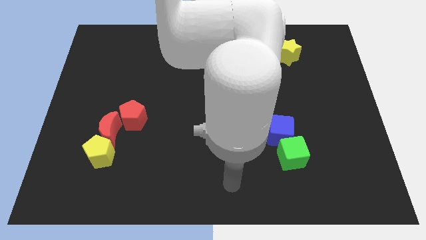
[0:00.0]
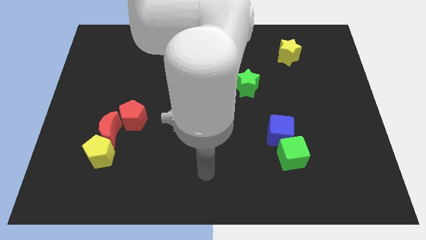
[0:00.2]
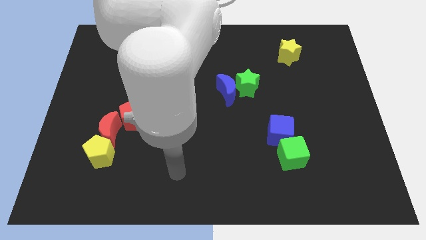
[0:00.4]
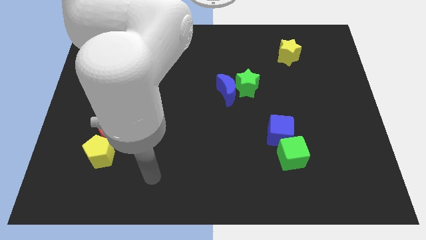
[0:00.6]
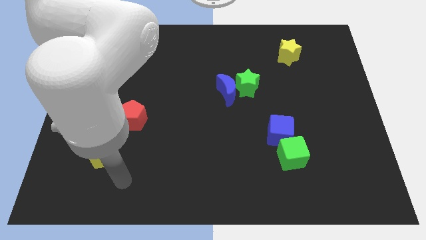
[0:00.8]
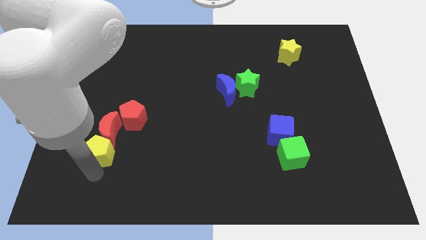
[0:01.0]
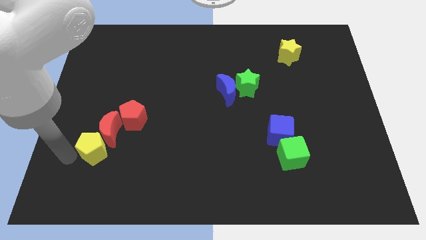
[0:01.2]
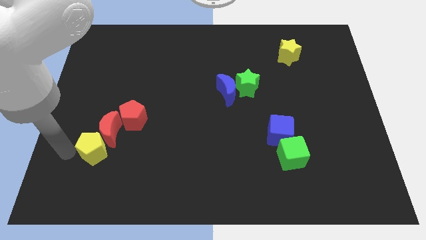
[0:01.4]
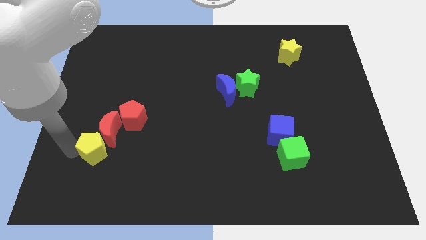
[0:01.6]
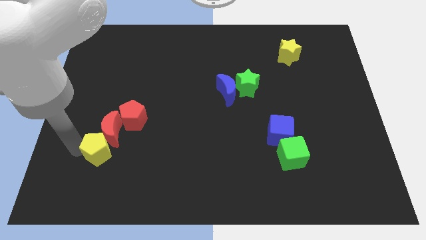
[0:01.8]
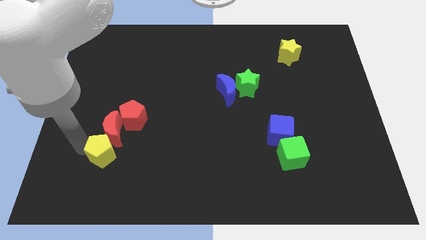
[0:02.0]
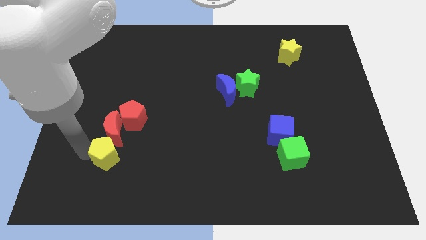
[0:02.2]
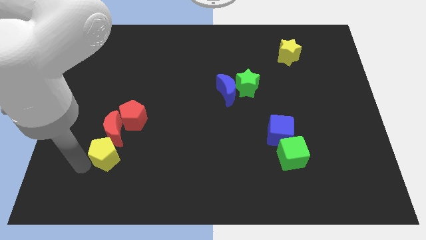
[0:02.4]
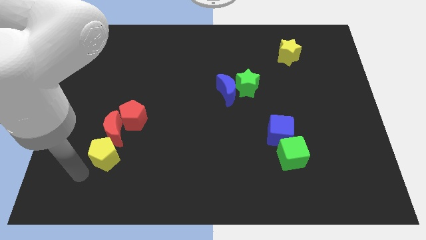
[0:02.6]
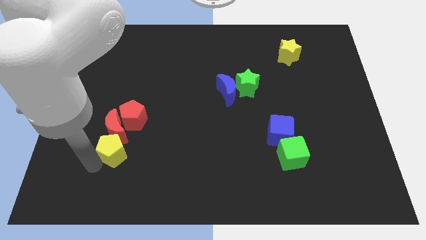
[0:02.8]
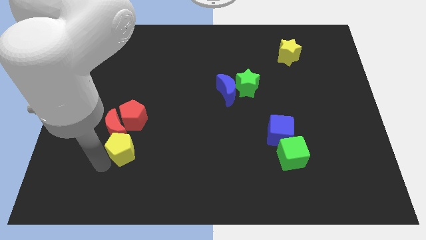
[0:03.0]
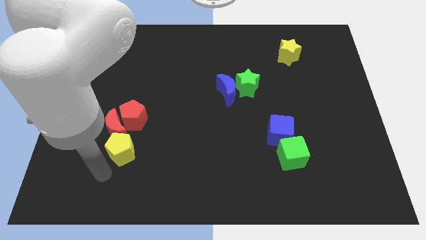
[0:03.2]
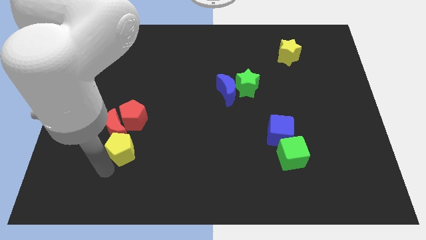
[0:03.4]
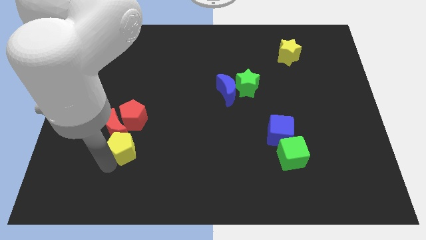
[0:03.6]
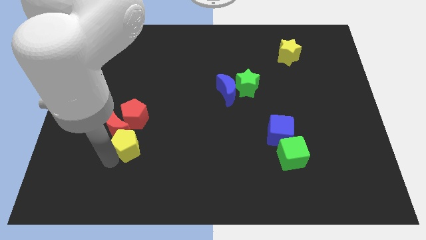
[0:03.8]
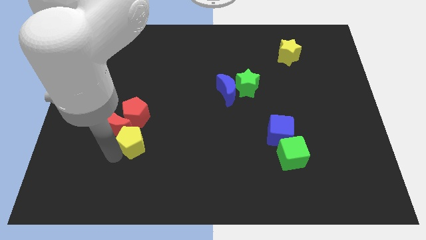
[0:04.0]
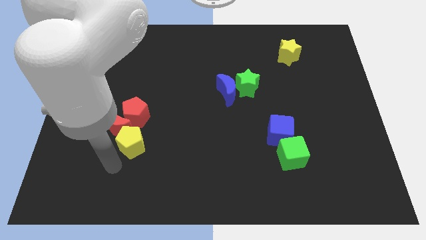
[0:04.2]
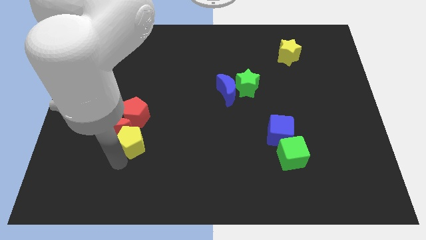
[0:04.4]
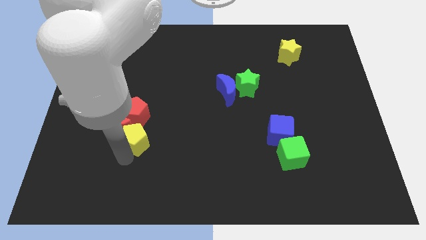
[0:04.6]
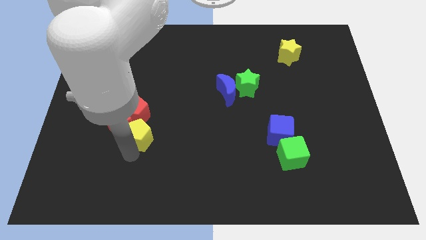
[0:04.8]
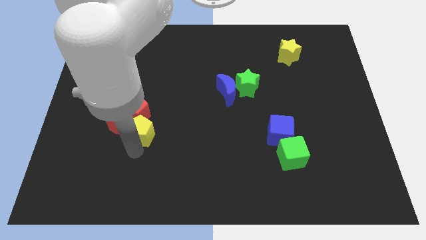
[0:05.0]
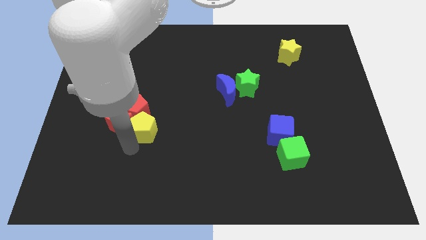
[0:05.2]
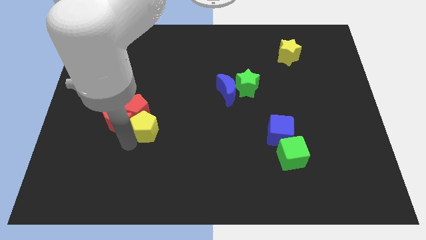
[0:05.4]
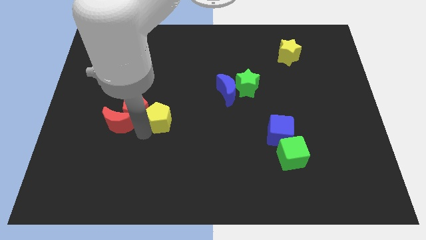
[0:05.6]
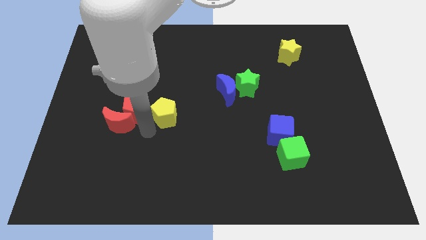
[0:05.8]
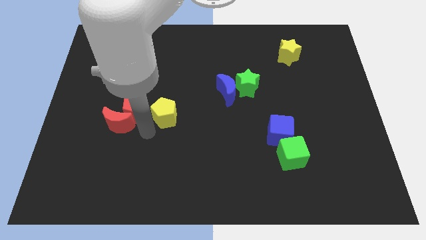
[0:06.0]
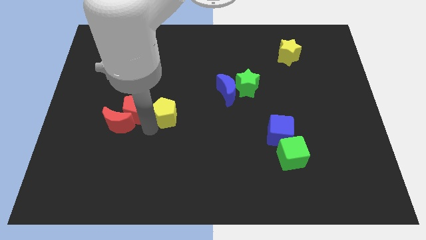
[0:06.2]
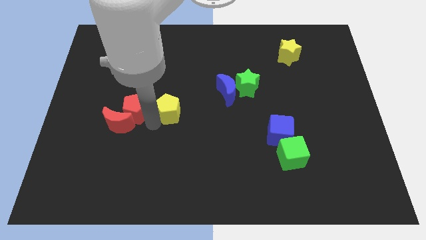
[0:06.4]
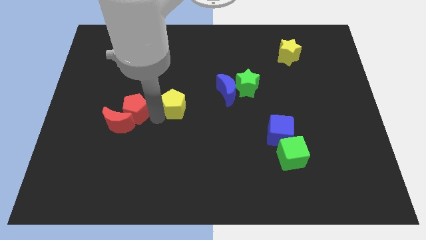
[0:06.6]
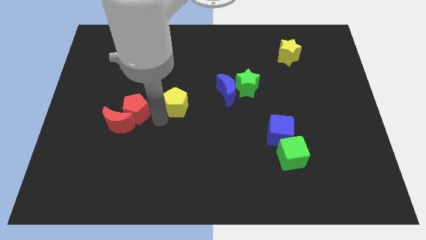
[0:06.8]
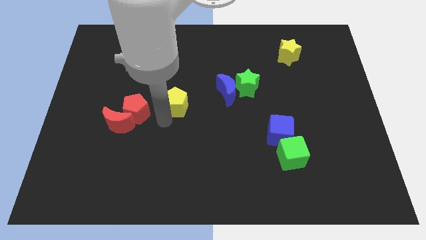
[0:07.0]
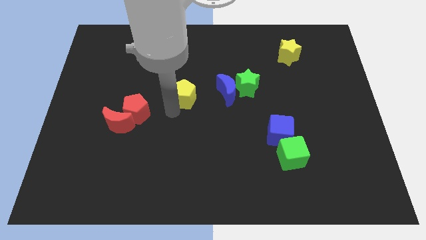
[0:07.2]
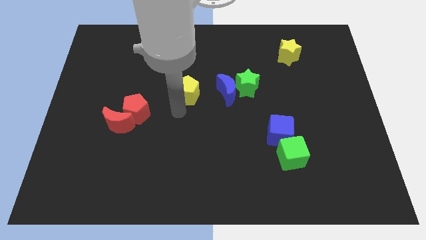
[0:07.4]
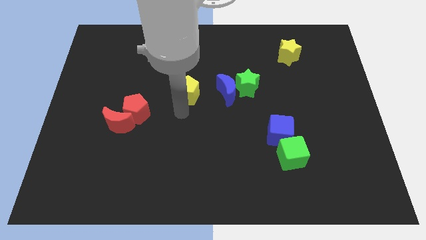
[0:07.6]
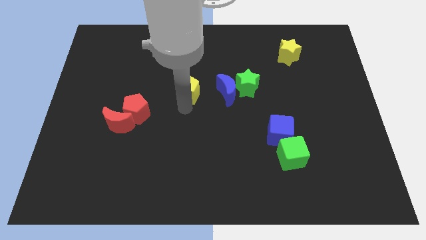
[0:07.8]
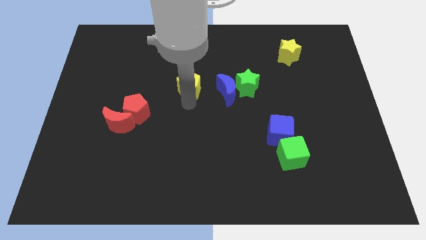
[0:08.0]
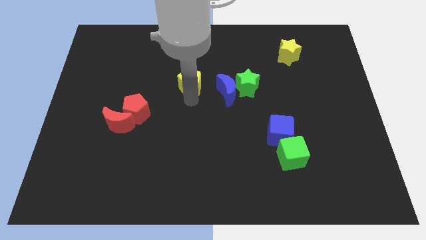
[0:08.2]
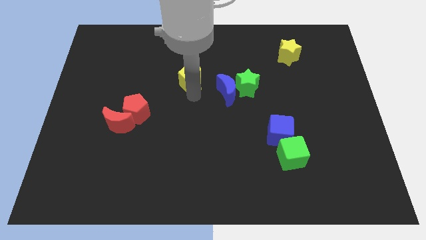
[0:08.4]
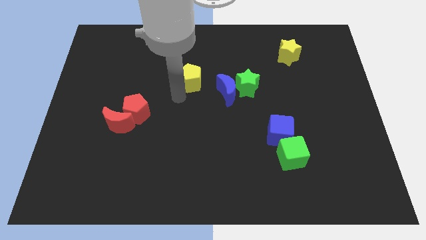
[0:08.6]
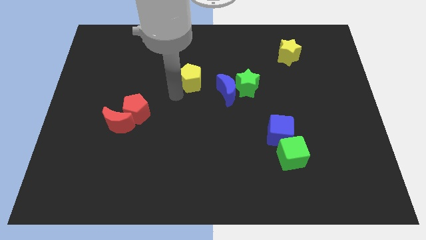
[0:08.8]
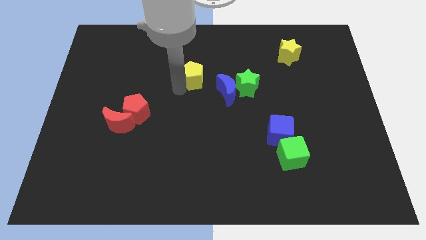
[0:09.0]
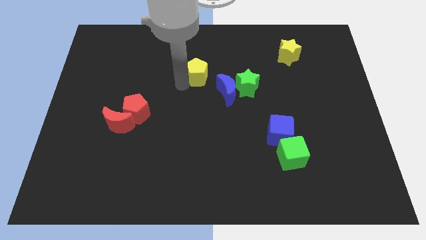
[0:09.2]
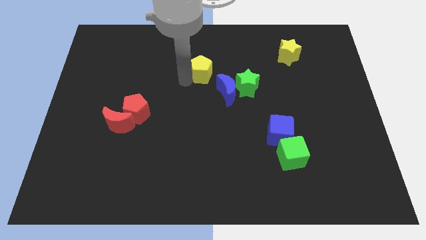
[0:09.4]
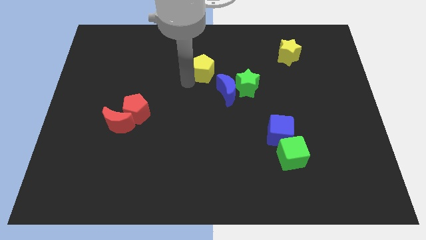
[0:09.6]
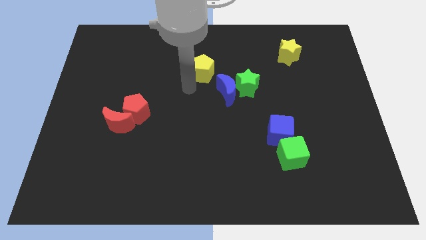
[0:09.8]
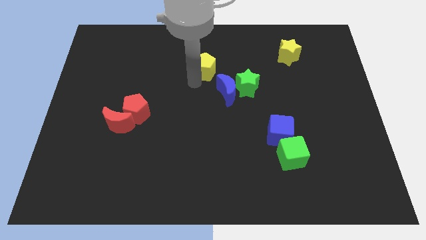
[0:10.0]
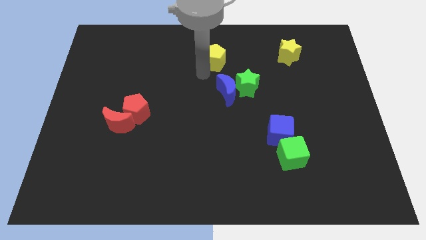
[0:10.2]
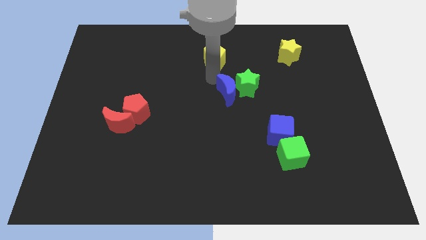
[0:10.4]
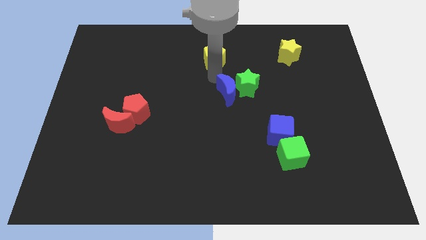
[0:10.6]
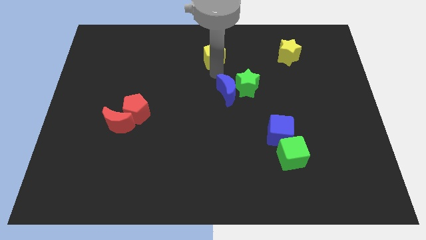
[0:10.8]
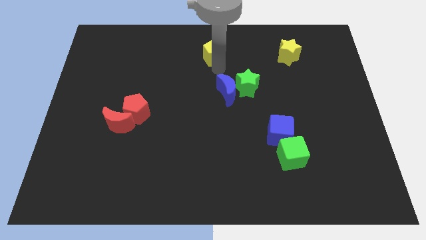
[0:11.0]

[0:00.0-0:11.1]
push the yellow pentagon to the towards your base

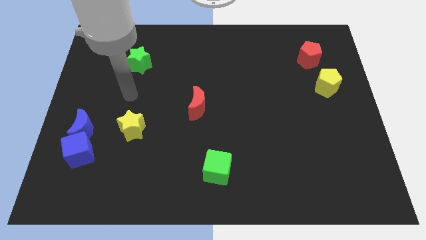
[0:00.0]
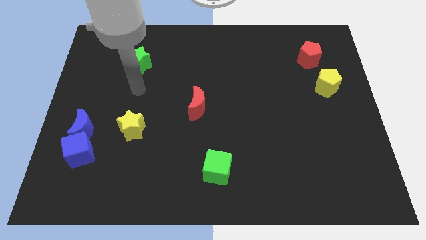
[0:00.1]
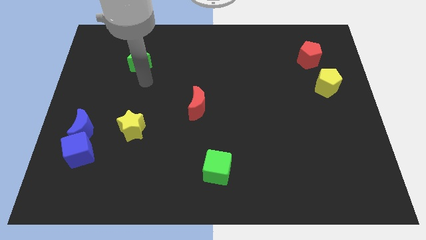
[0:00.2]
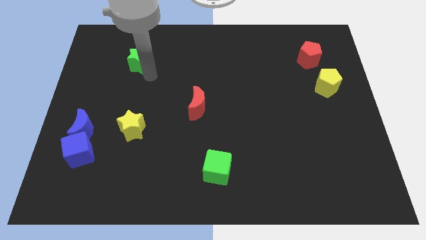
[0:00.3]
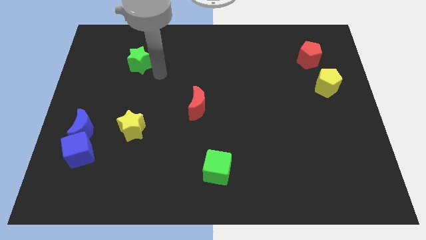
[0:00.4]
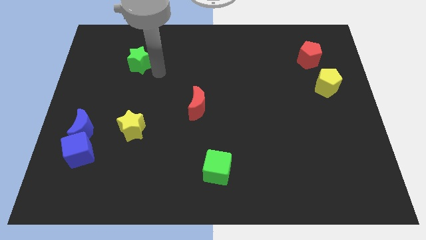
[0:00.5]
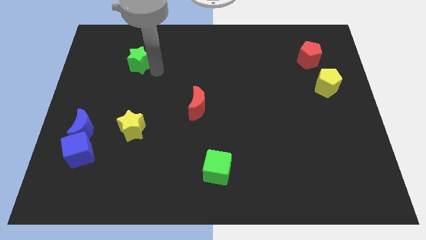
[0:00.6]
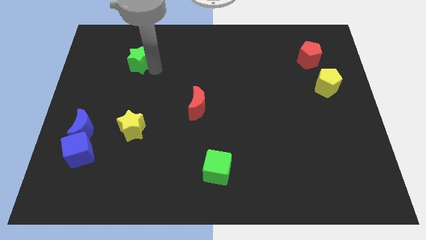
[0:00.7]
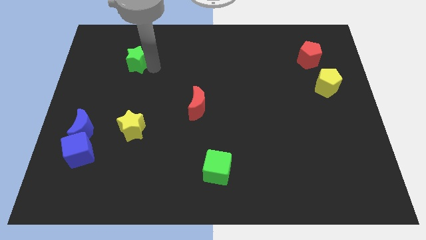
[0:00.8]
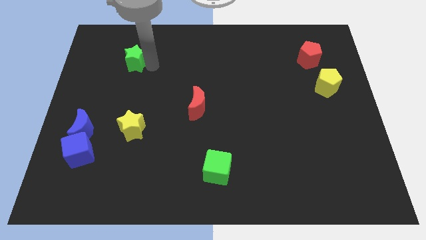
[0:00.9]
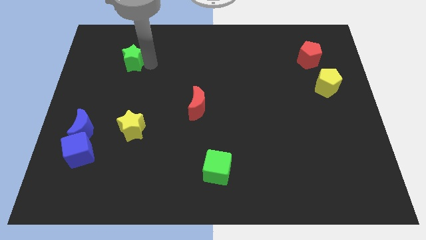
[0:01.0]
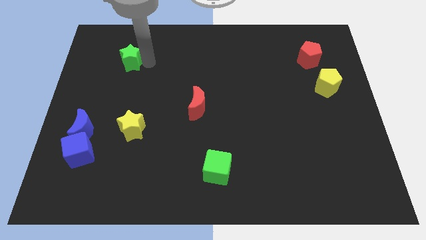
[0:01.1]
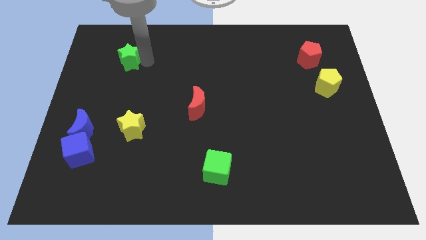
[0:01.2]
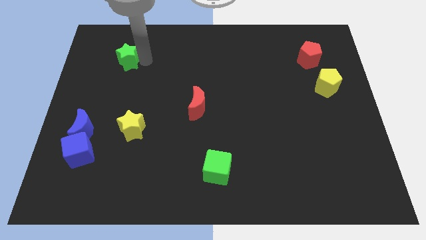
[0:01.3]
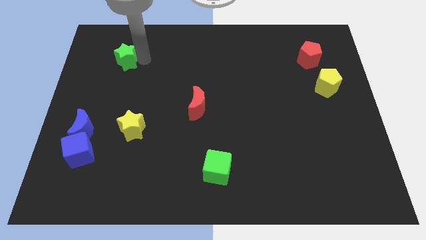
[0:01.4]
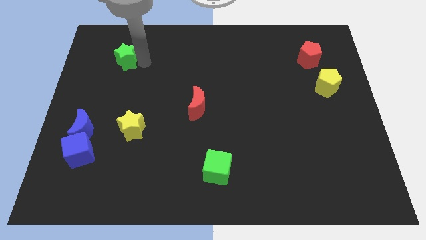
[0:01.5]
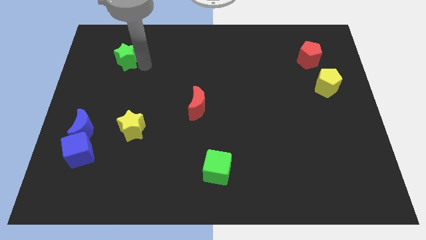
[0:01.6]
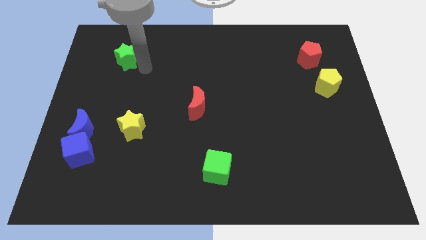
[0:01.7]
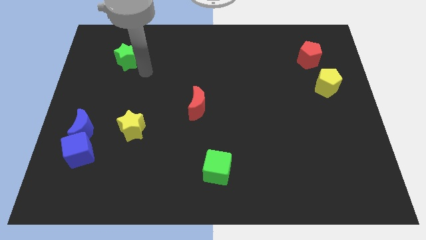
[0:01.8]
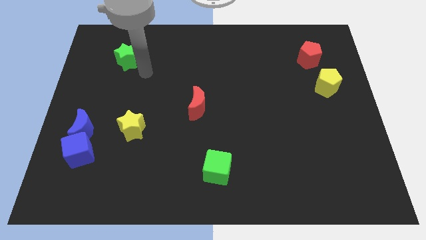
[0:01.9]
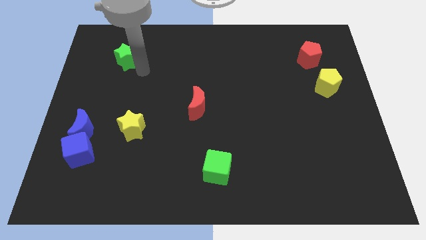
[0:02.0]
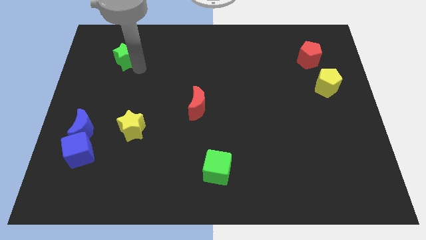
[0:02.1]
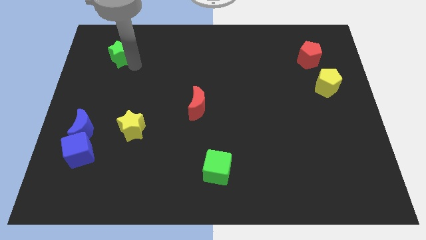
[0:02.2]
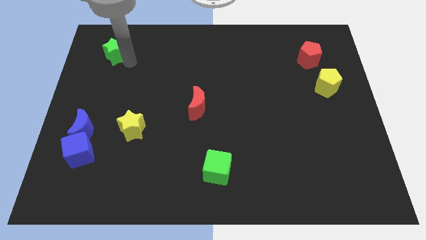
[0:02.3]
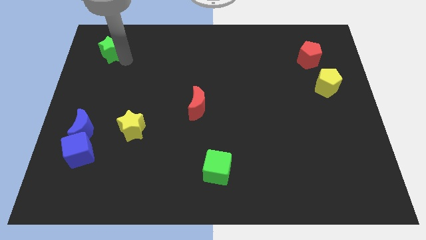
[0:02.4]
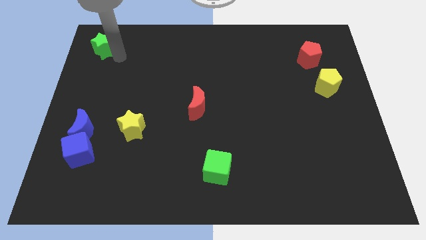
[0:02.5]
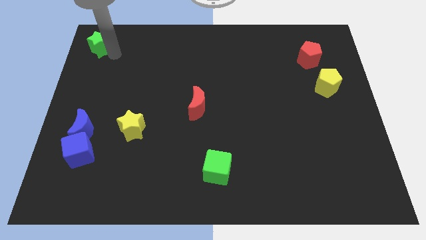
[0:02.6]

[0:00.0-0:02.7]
push the green star to the top left
